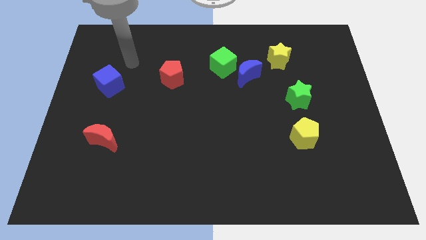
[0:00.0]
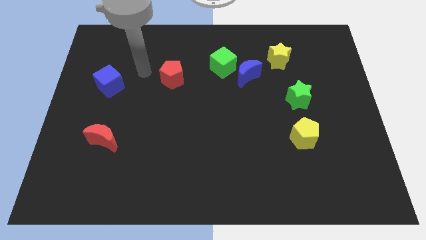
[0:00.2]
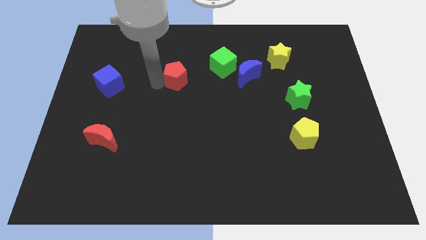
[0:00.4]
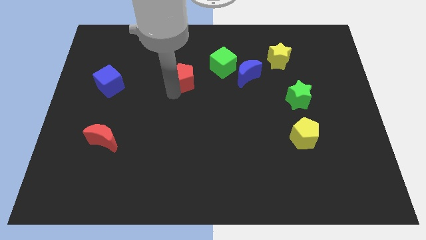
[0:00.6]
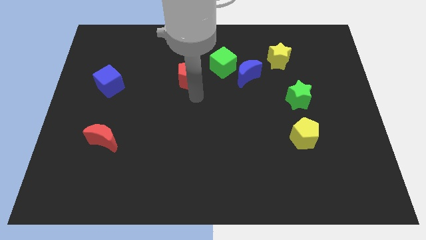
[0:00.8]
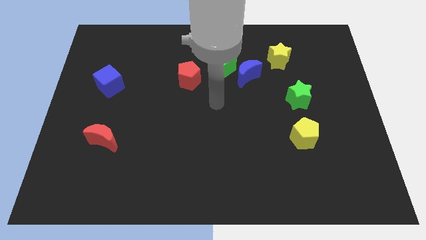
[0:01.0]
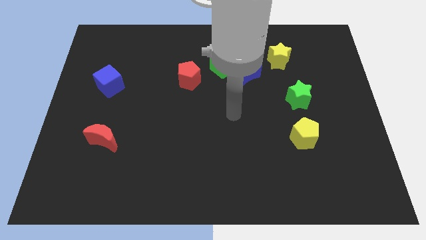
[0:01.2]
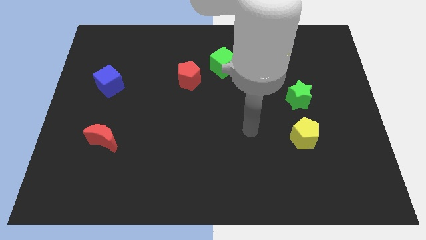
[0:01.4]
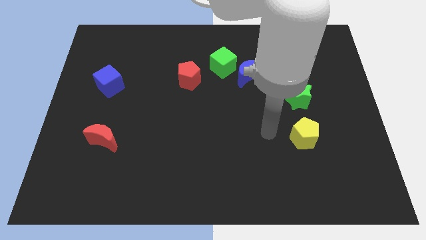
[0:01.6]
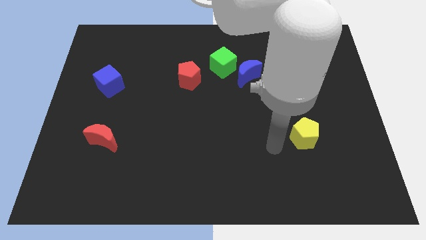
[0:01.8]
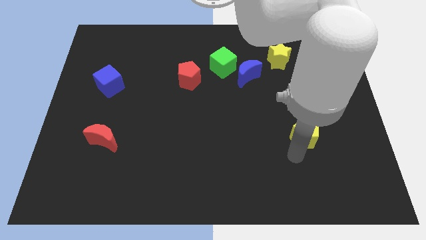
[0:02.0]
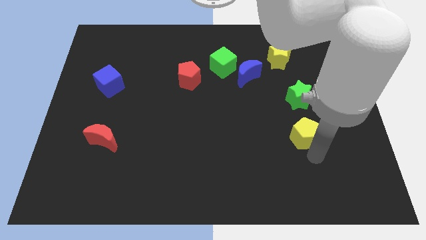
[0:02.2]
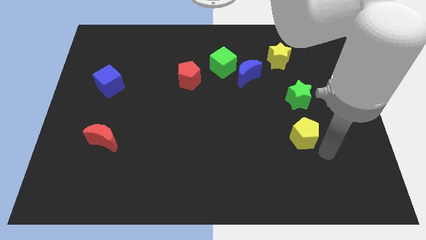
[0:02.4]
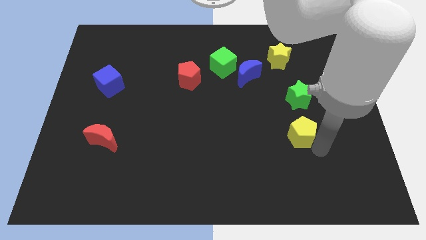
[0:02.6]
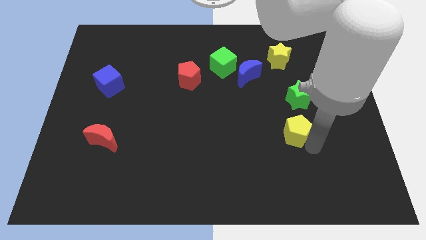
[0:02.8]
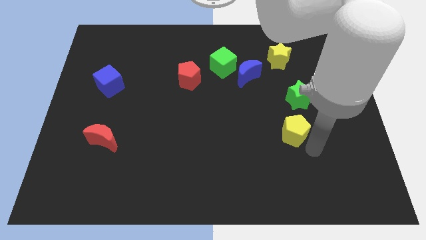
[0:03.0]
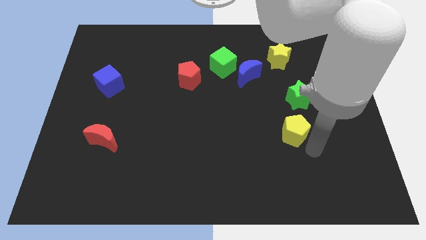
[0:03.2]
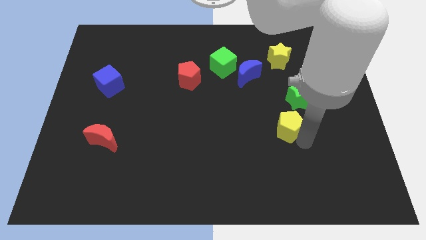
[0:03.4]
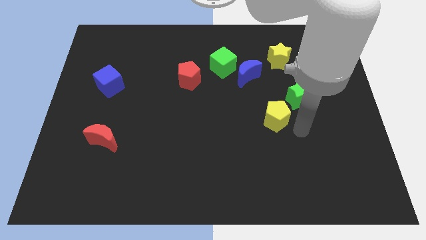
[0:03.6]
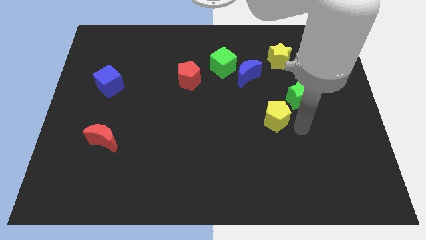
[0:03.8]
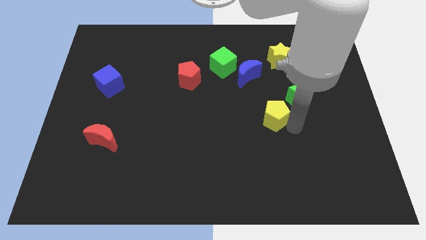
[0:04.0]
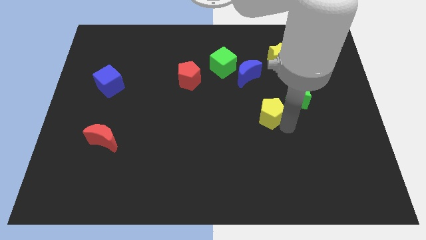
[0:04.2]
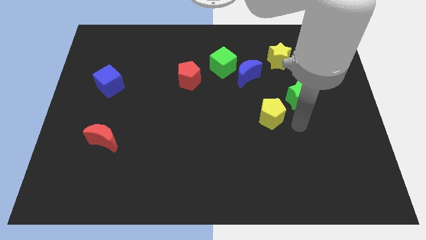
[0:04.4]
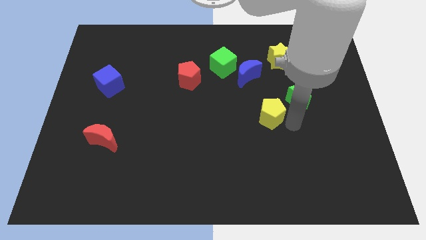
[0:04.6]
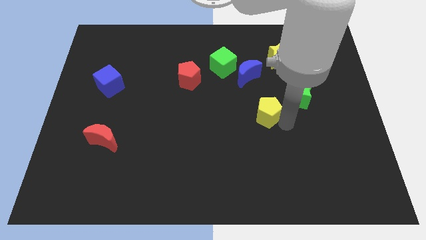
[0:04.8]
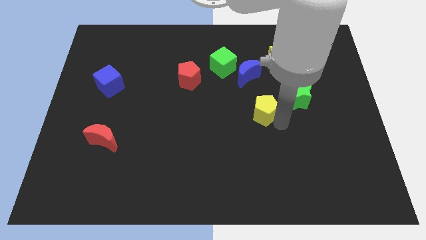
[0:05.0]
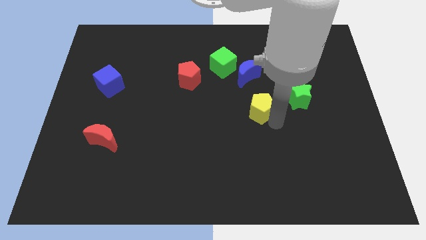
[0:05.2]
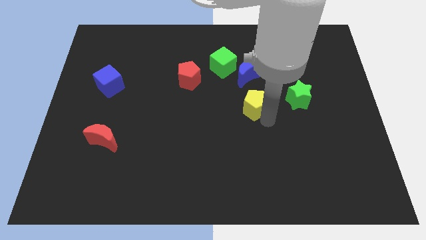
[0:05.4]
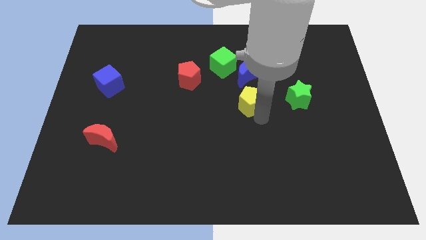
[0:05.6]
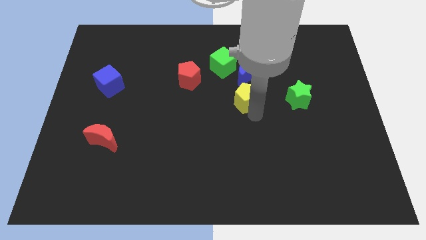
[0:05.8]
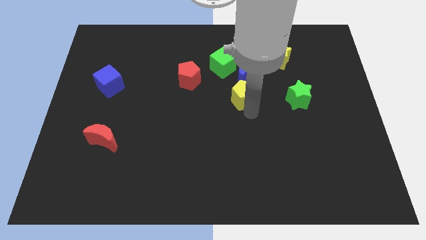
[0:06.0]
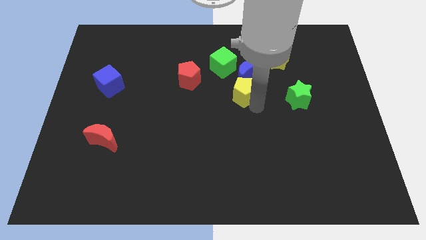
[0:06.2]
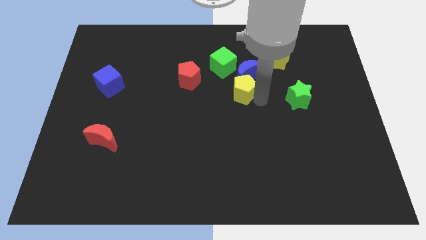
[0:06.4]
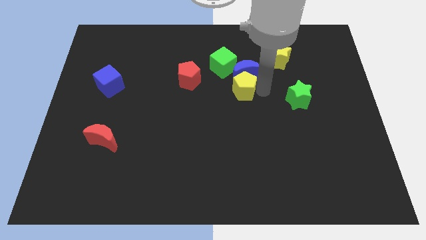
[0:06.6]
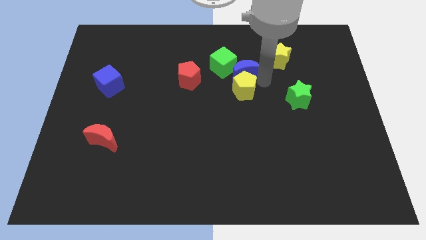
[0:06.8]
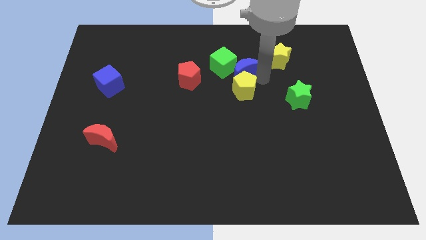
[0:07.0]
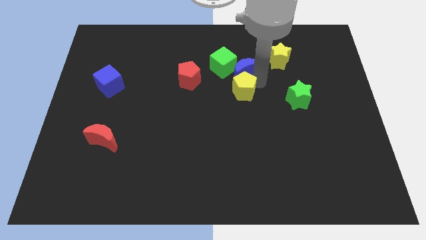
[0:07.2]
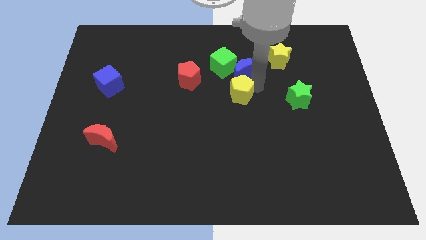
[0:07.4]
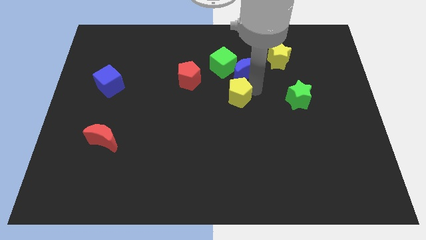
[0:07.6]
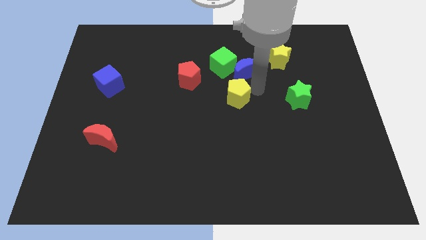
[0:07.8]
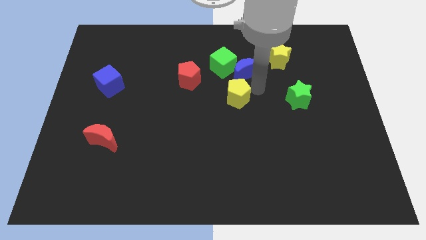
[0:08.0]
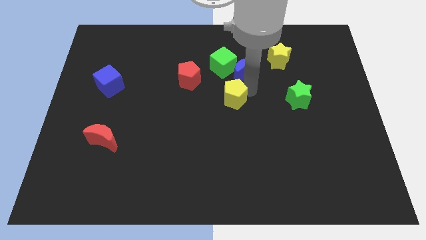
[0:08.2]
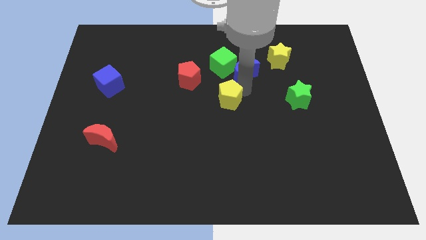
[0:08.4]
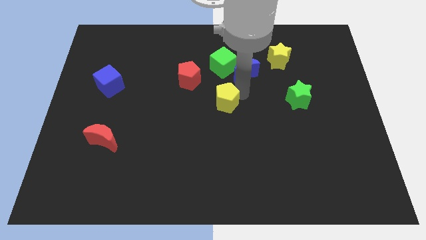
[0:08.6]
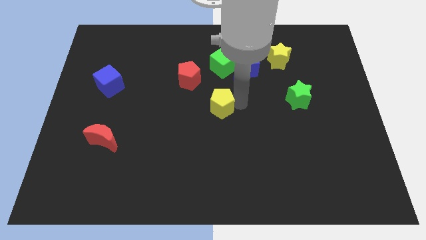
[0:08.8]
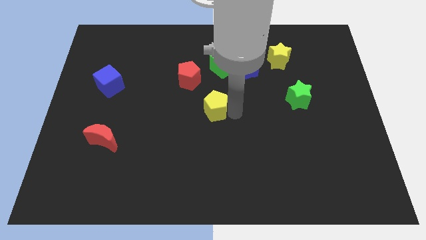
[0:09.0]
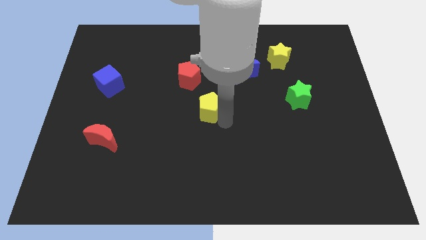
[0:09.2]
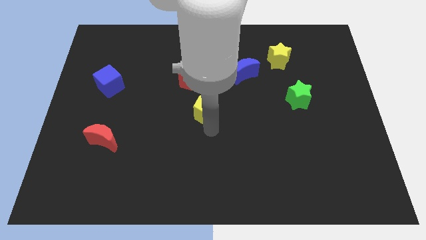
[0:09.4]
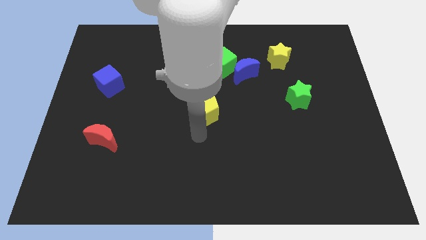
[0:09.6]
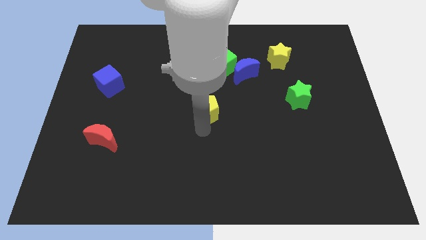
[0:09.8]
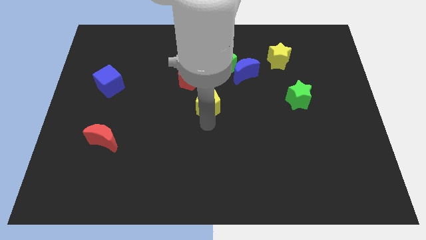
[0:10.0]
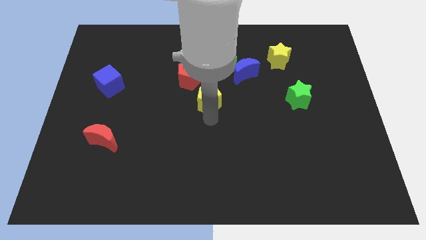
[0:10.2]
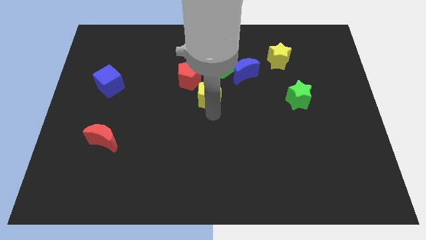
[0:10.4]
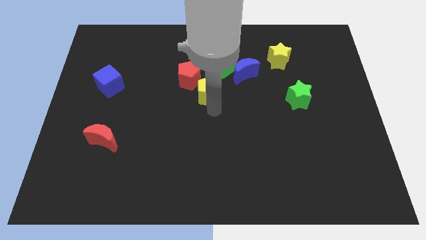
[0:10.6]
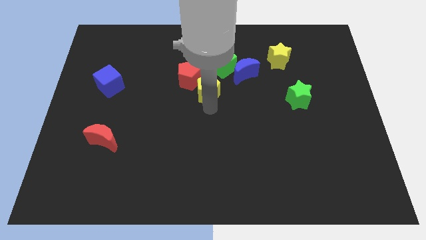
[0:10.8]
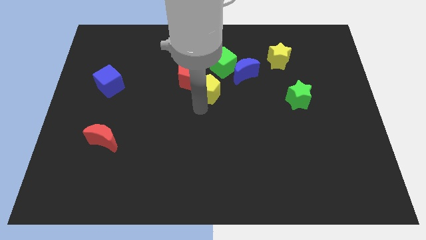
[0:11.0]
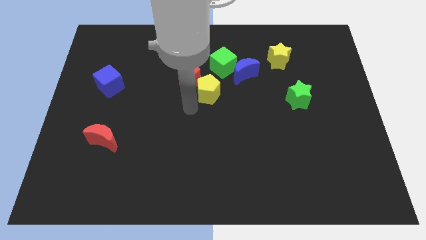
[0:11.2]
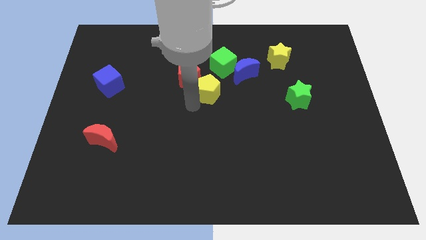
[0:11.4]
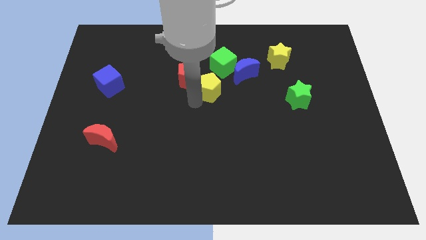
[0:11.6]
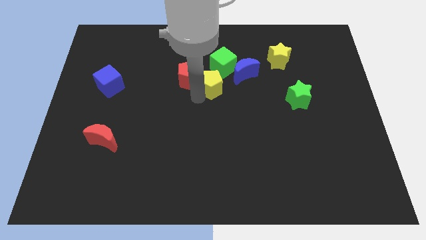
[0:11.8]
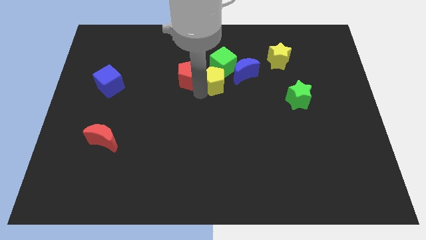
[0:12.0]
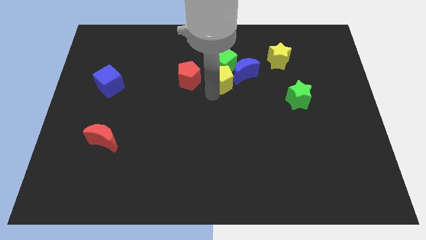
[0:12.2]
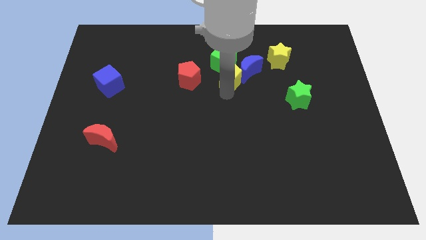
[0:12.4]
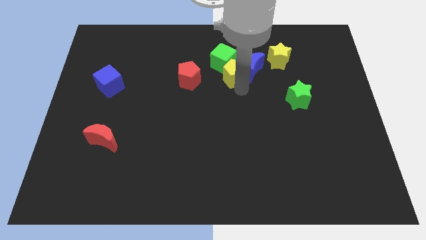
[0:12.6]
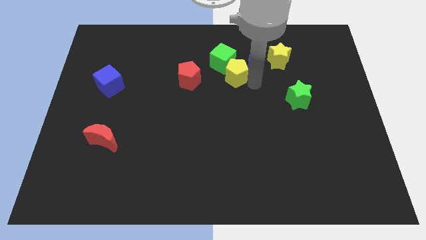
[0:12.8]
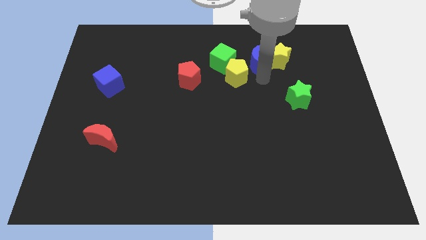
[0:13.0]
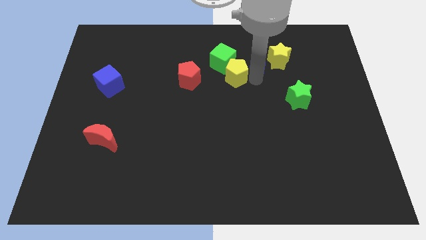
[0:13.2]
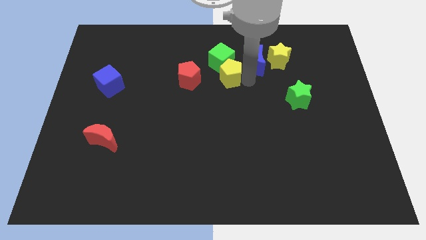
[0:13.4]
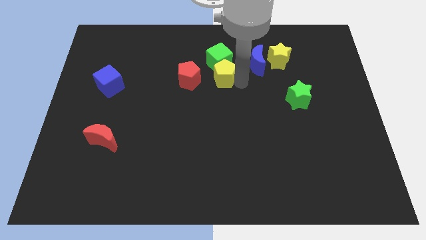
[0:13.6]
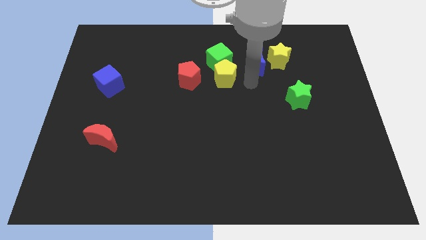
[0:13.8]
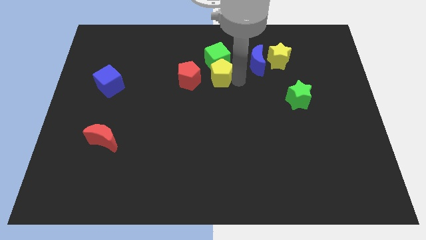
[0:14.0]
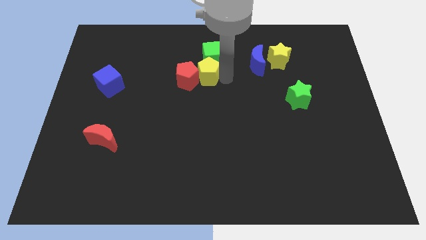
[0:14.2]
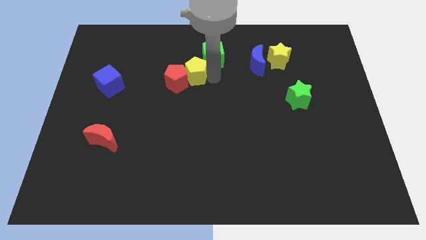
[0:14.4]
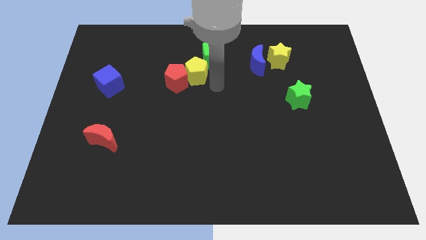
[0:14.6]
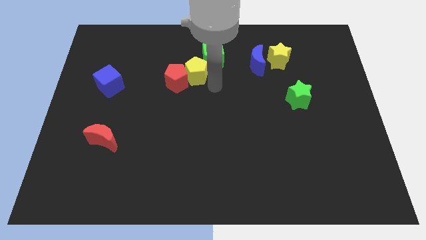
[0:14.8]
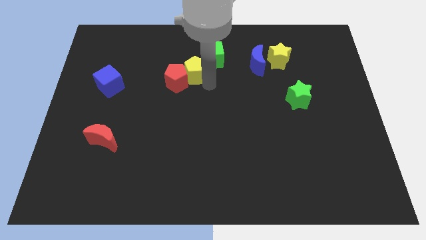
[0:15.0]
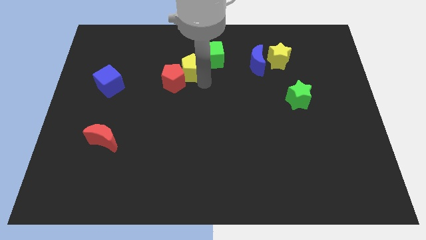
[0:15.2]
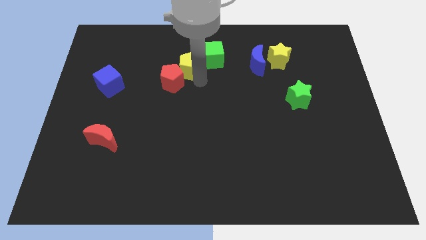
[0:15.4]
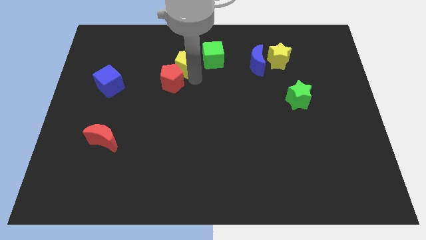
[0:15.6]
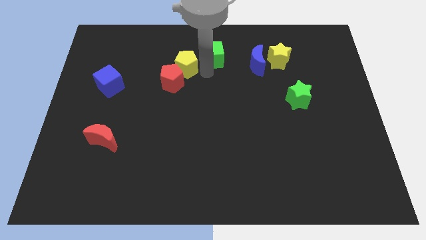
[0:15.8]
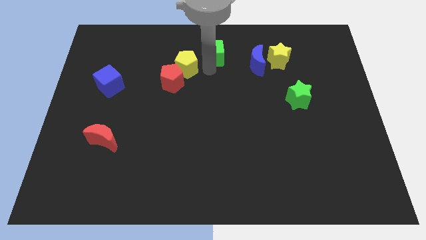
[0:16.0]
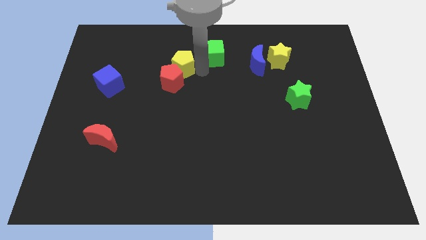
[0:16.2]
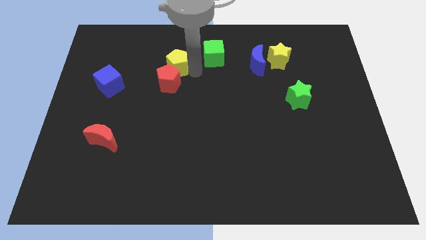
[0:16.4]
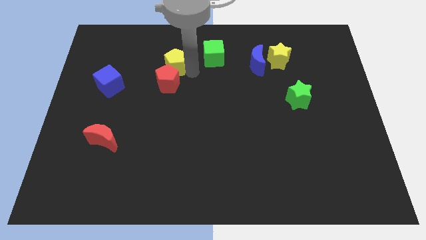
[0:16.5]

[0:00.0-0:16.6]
push the yellow pentagon to the top left of the red pentagon
